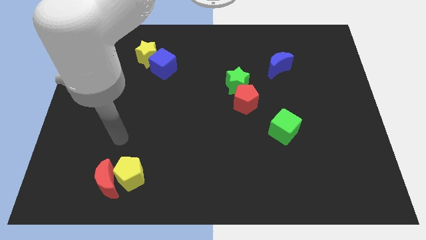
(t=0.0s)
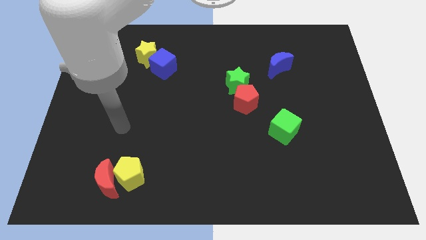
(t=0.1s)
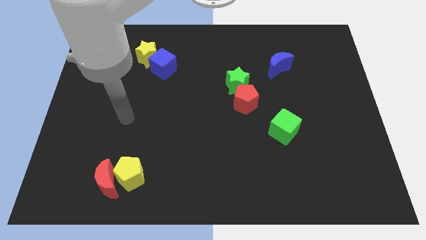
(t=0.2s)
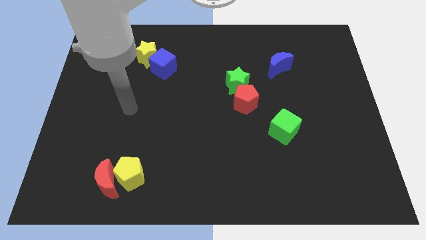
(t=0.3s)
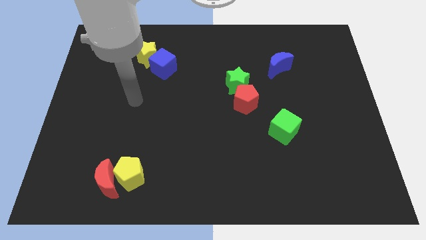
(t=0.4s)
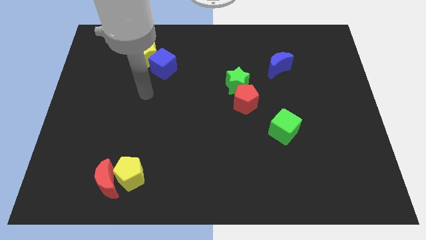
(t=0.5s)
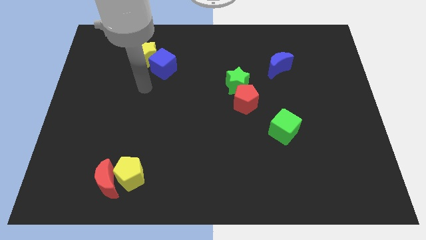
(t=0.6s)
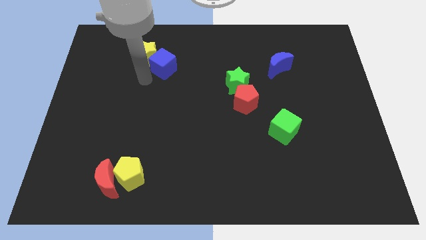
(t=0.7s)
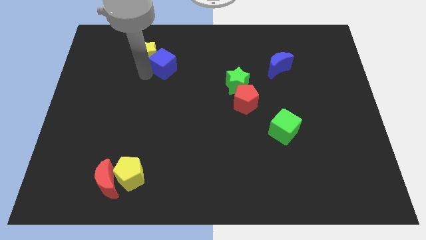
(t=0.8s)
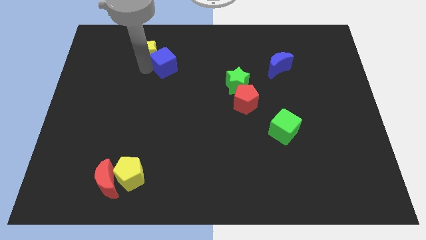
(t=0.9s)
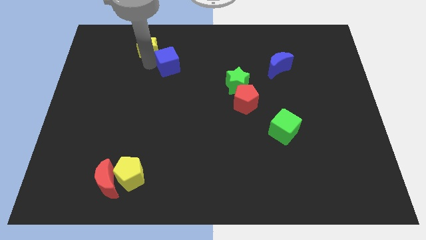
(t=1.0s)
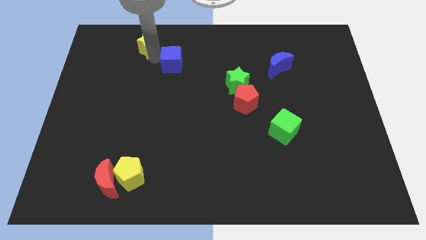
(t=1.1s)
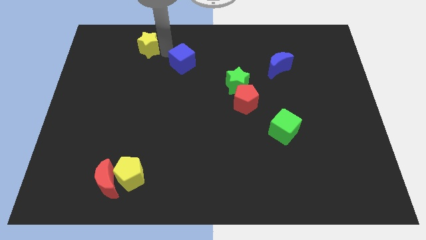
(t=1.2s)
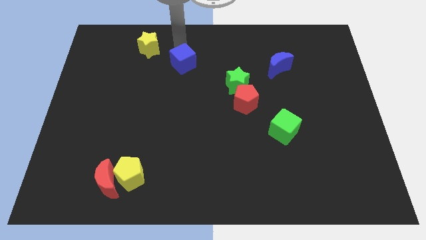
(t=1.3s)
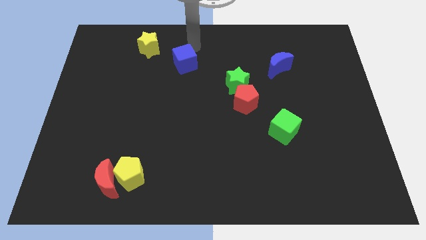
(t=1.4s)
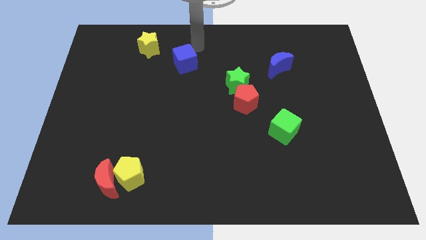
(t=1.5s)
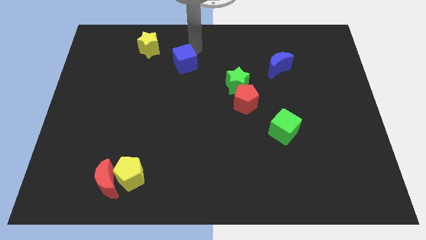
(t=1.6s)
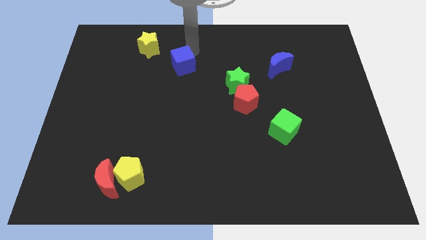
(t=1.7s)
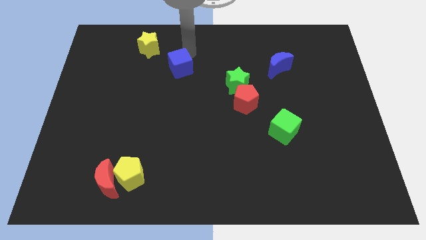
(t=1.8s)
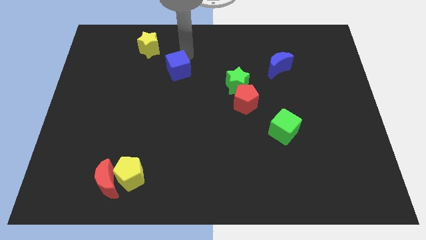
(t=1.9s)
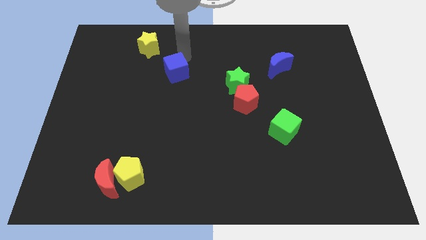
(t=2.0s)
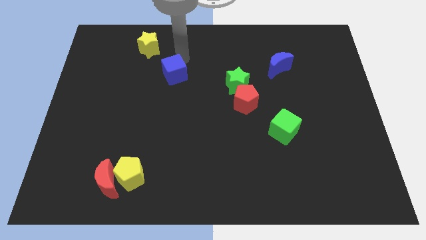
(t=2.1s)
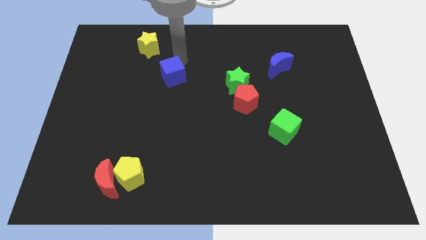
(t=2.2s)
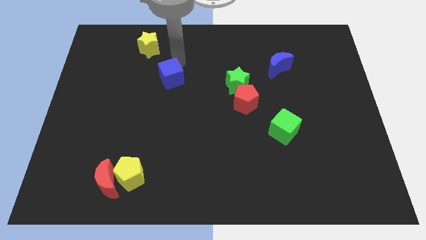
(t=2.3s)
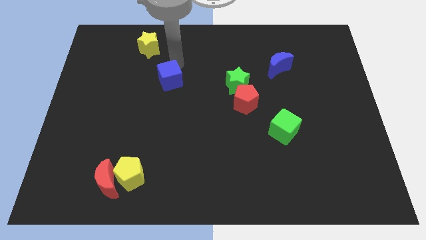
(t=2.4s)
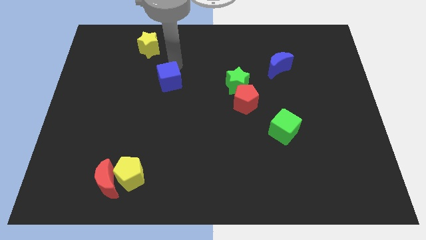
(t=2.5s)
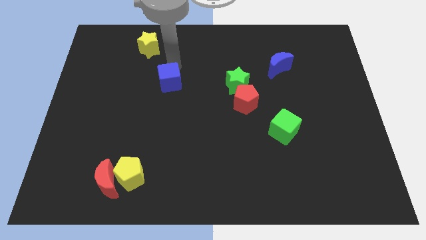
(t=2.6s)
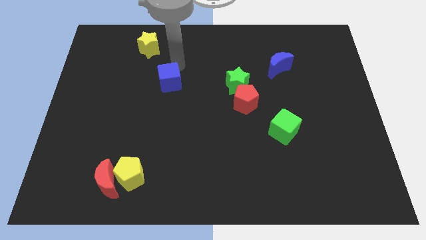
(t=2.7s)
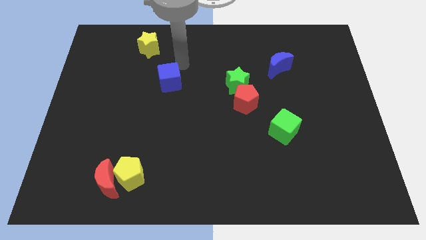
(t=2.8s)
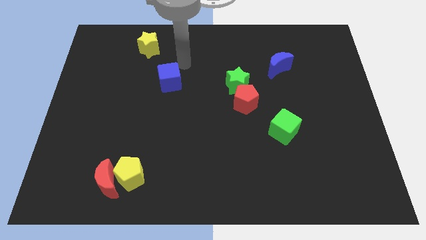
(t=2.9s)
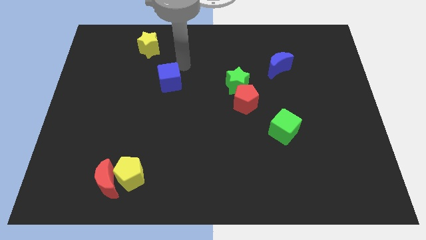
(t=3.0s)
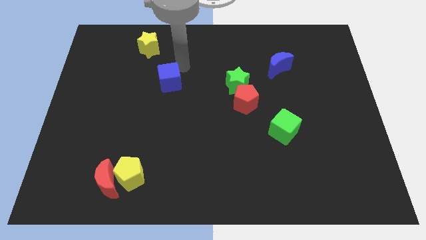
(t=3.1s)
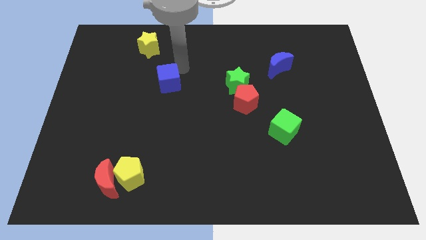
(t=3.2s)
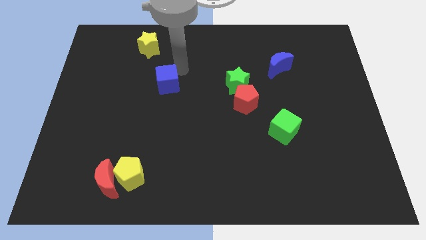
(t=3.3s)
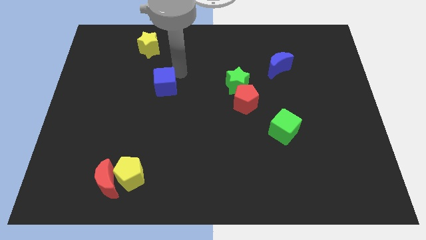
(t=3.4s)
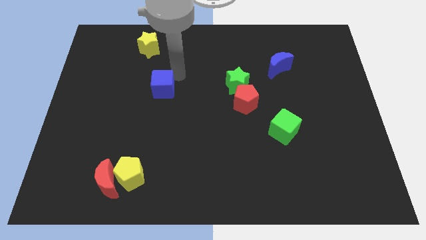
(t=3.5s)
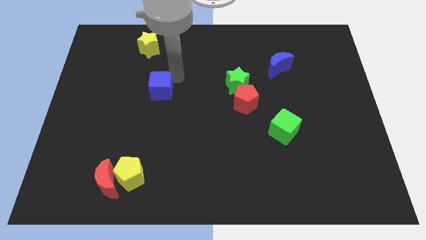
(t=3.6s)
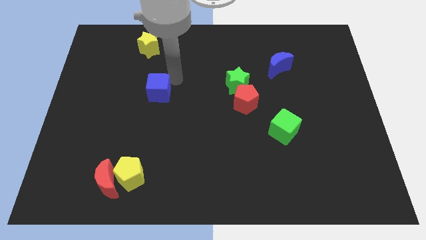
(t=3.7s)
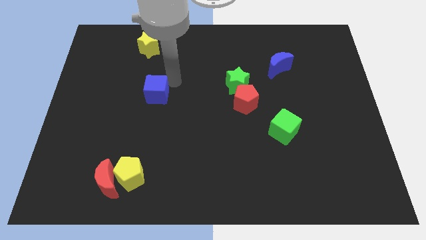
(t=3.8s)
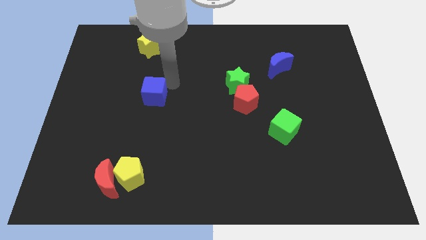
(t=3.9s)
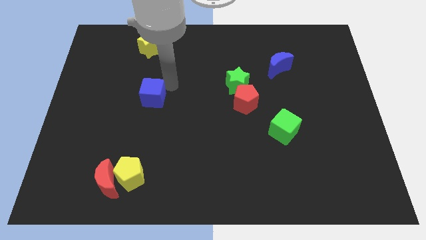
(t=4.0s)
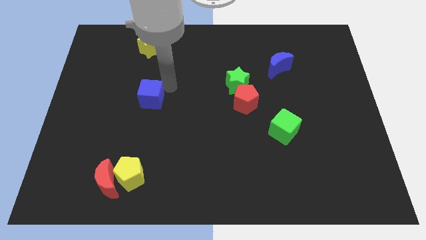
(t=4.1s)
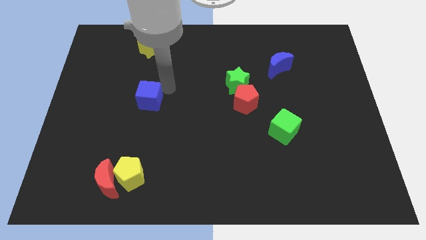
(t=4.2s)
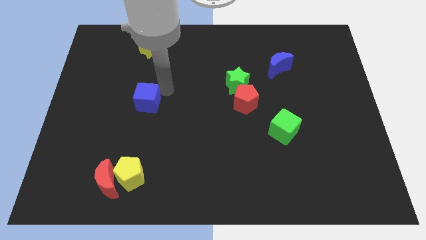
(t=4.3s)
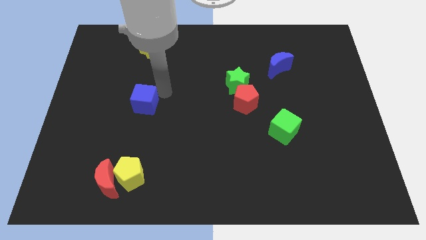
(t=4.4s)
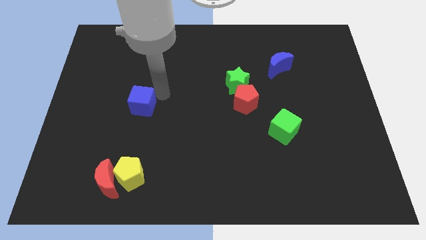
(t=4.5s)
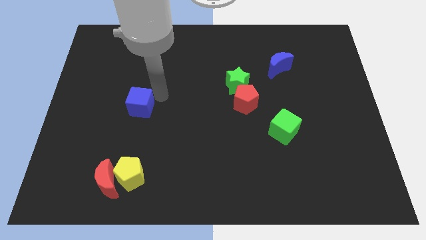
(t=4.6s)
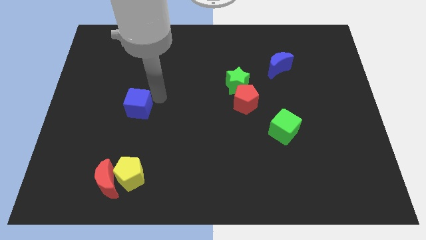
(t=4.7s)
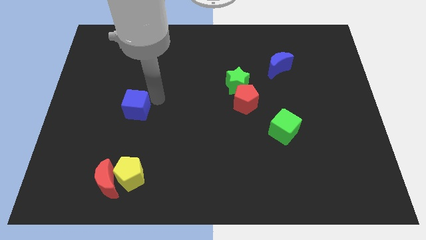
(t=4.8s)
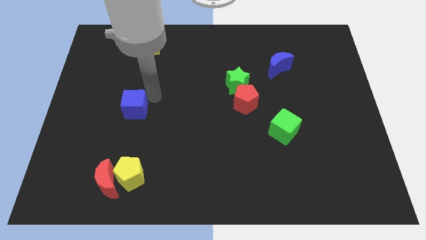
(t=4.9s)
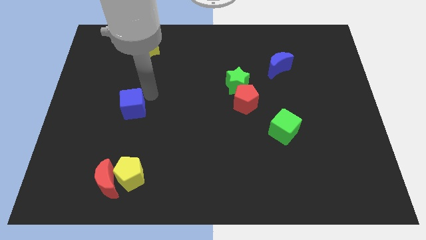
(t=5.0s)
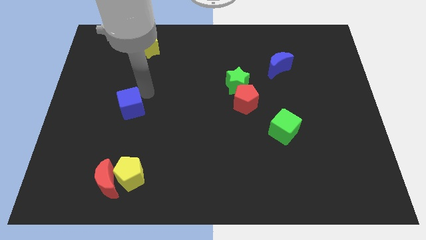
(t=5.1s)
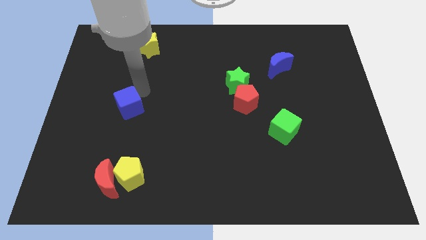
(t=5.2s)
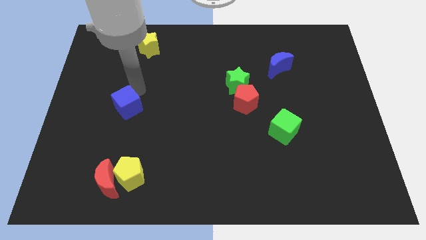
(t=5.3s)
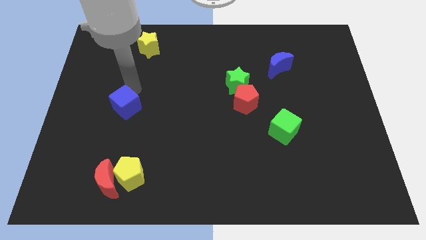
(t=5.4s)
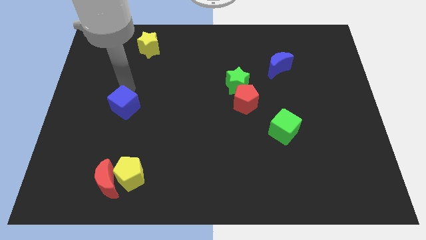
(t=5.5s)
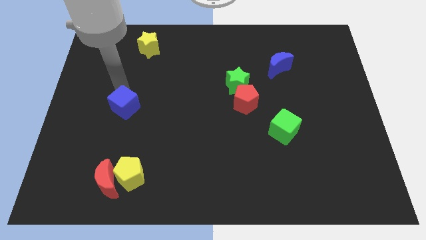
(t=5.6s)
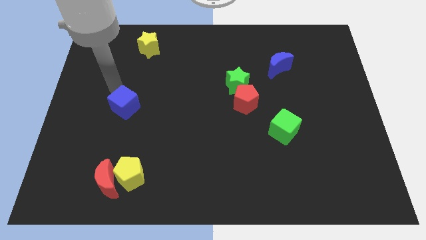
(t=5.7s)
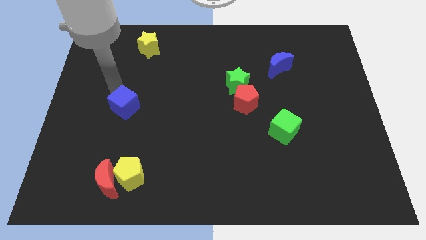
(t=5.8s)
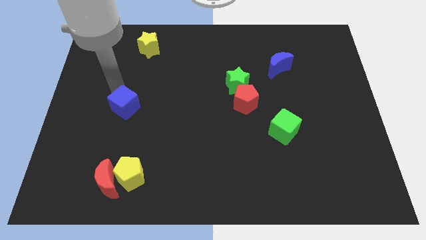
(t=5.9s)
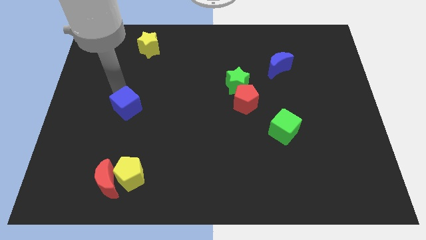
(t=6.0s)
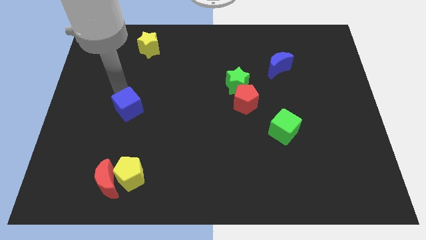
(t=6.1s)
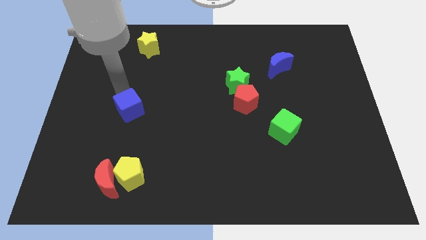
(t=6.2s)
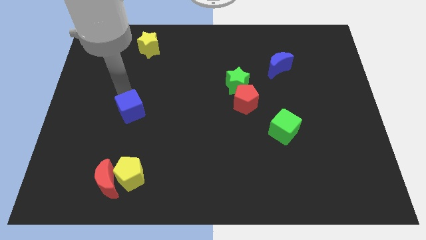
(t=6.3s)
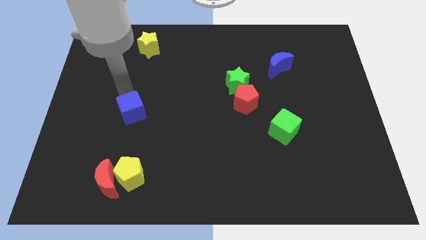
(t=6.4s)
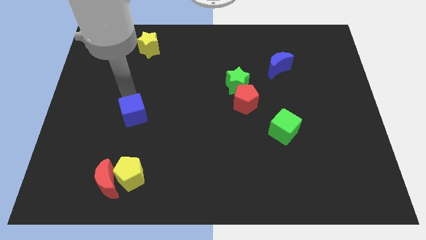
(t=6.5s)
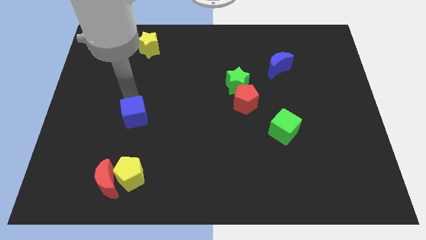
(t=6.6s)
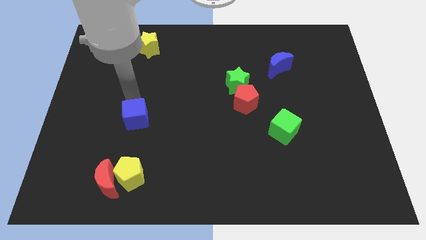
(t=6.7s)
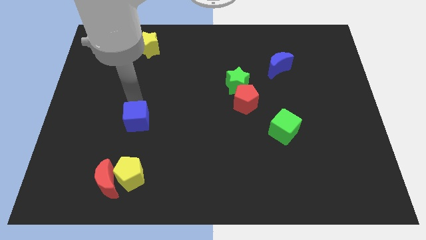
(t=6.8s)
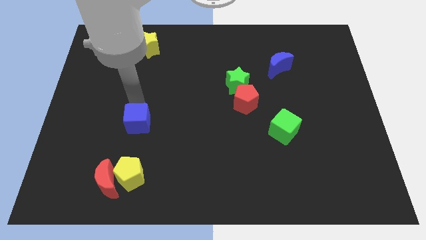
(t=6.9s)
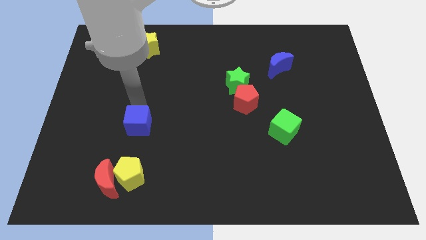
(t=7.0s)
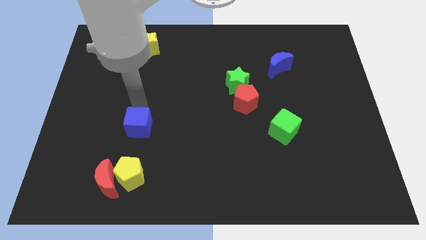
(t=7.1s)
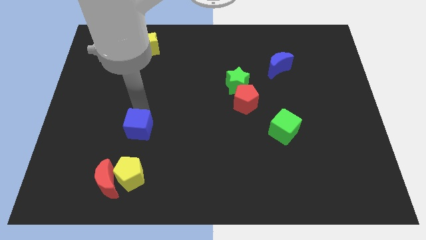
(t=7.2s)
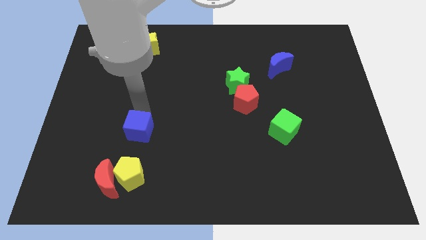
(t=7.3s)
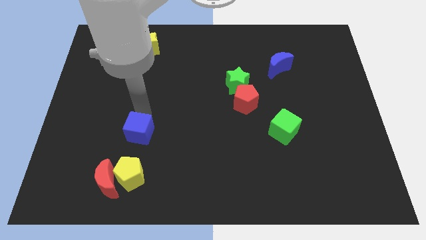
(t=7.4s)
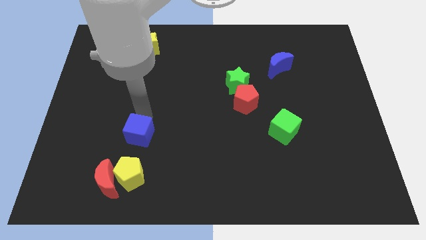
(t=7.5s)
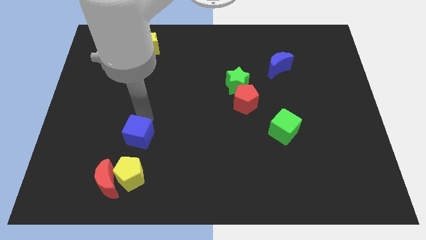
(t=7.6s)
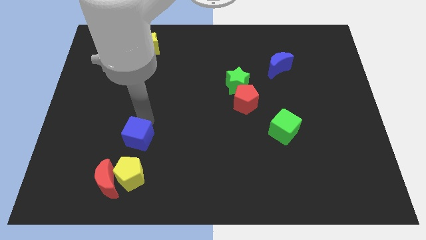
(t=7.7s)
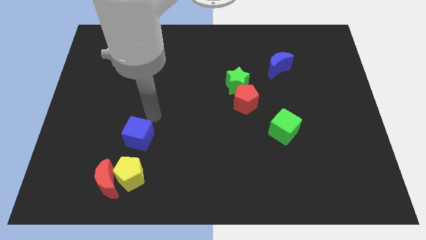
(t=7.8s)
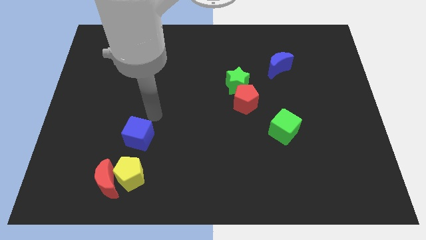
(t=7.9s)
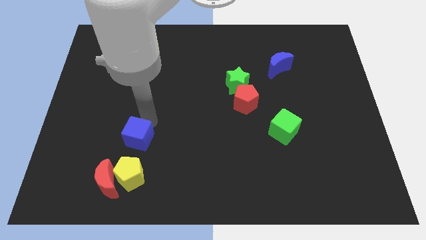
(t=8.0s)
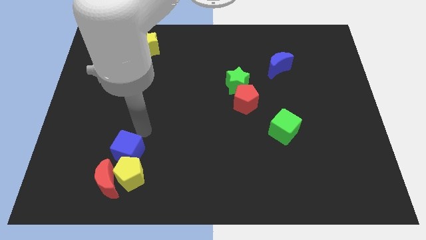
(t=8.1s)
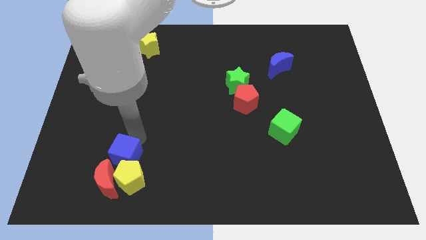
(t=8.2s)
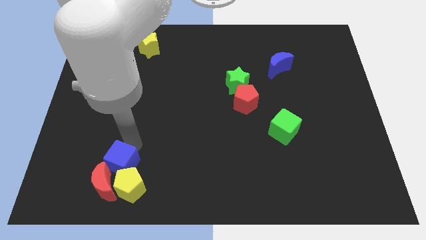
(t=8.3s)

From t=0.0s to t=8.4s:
move the blue cube to the red moon
